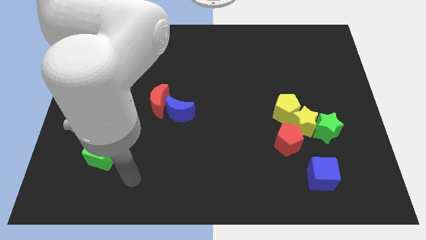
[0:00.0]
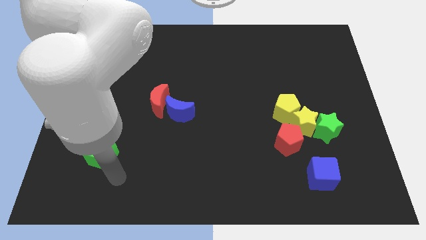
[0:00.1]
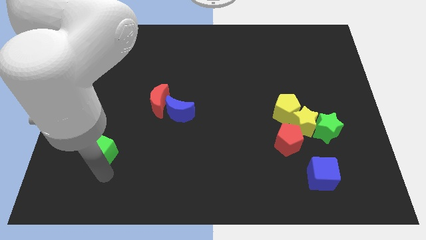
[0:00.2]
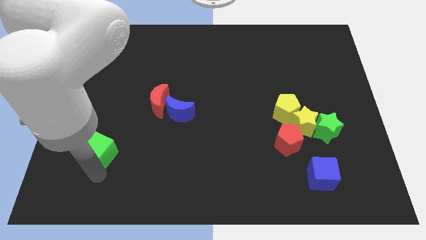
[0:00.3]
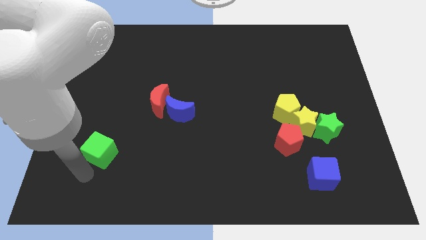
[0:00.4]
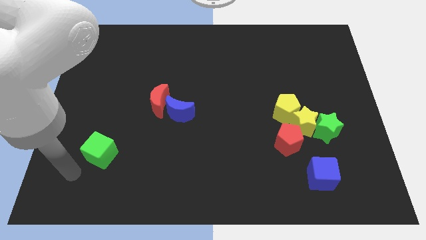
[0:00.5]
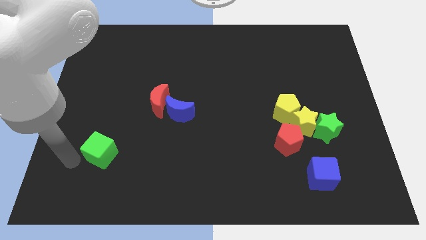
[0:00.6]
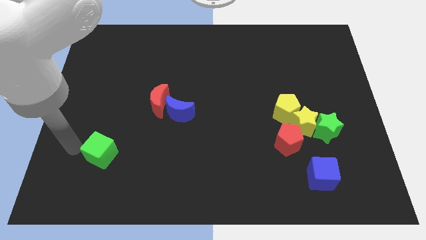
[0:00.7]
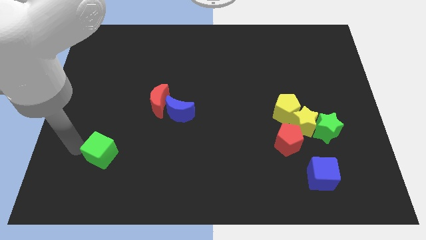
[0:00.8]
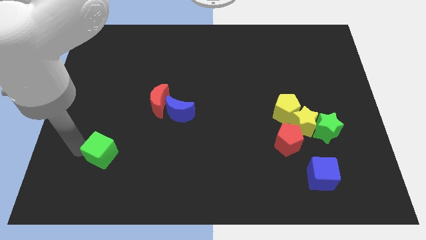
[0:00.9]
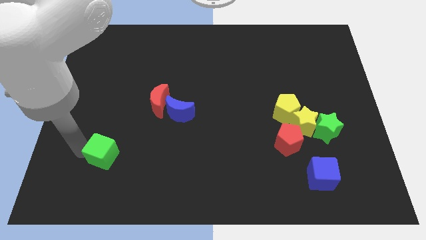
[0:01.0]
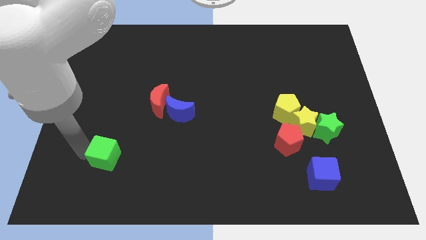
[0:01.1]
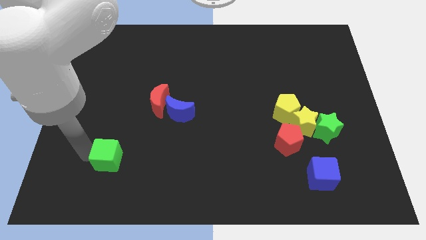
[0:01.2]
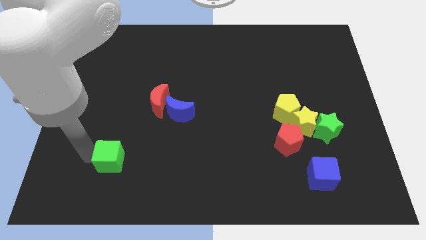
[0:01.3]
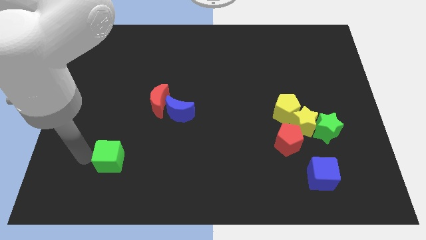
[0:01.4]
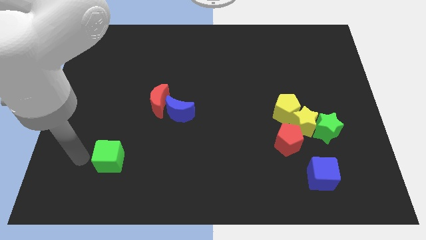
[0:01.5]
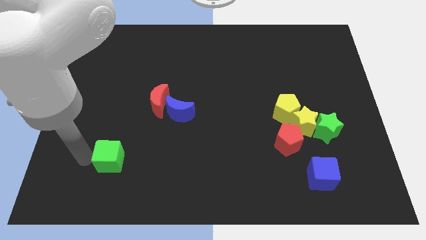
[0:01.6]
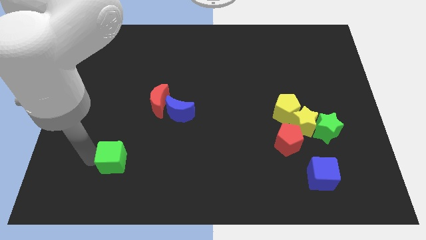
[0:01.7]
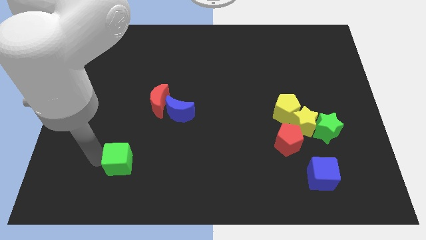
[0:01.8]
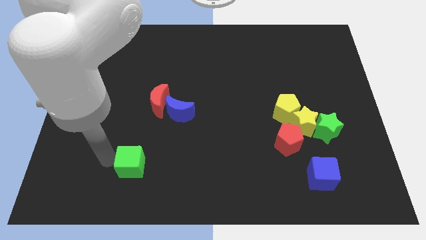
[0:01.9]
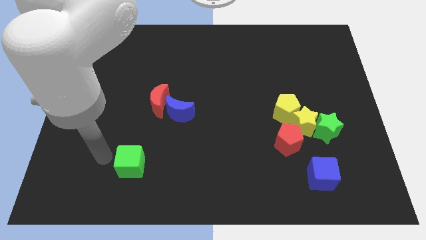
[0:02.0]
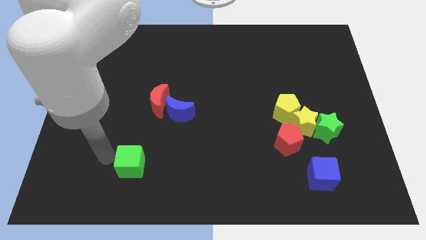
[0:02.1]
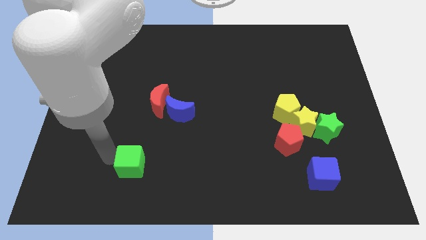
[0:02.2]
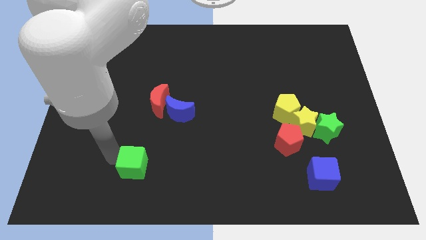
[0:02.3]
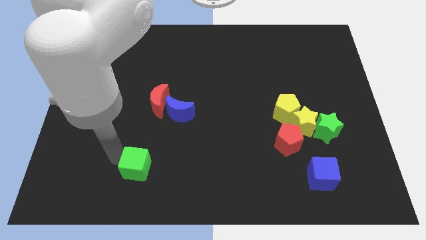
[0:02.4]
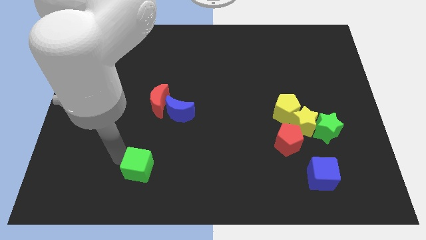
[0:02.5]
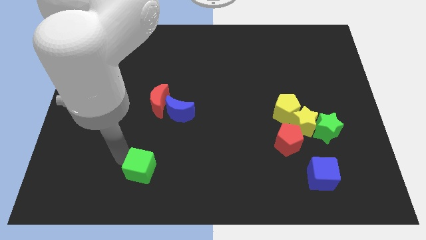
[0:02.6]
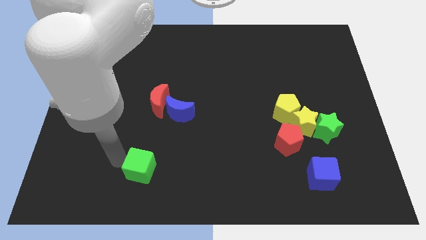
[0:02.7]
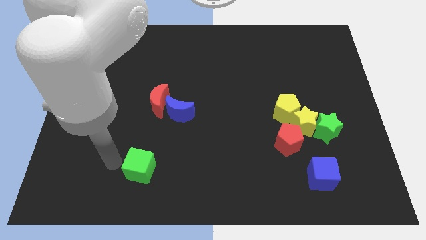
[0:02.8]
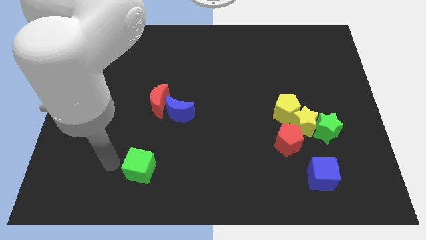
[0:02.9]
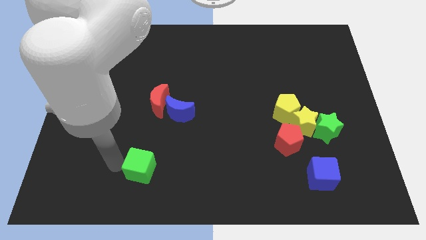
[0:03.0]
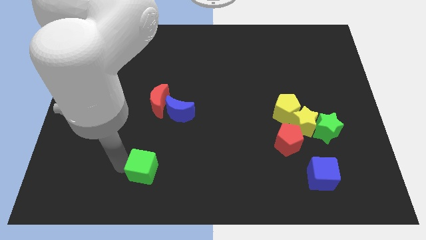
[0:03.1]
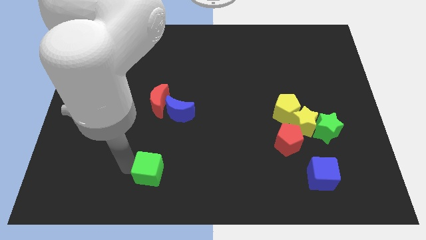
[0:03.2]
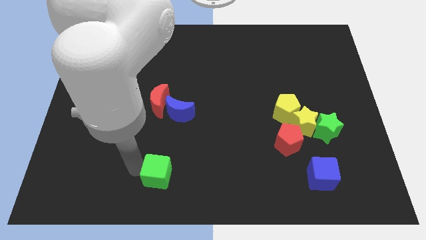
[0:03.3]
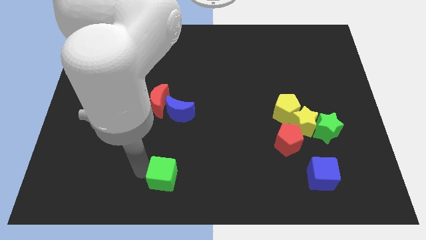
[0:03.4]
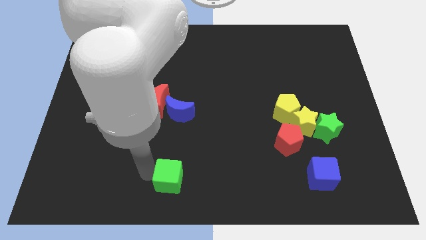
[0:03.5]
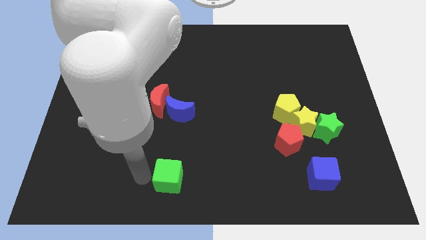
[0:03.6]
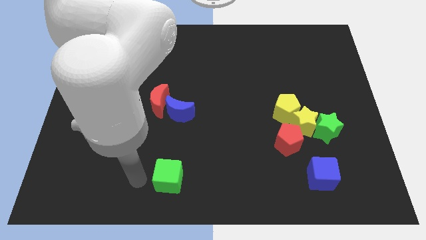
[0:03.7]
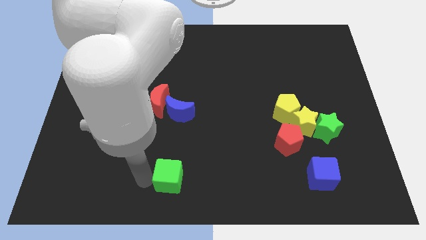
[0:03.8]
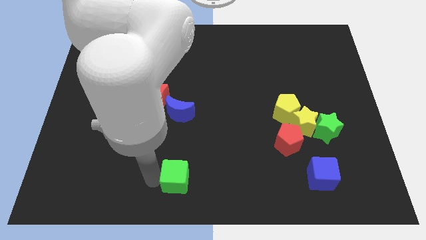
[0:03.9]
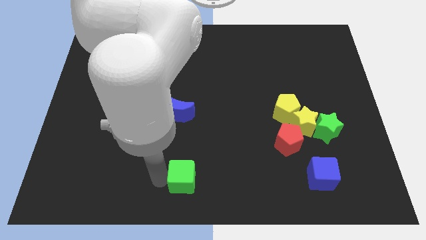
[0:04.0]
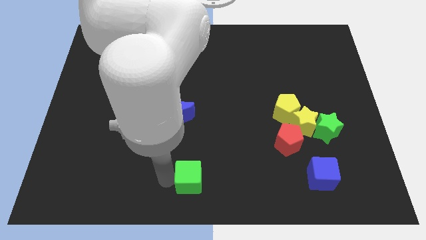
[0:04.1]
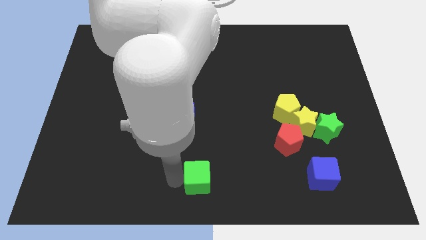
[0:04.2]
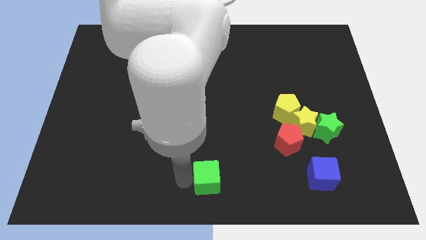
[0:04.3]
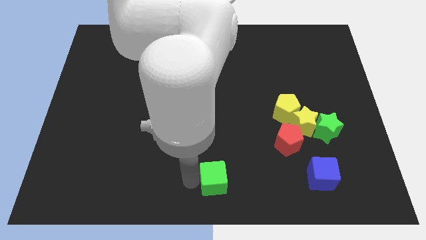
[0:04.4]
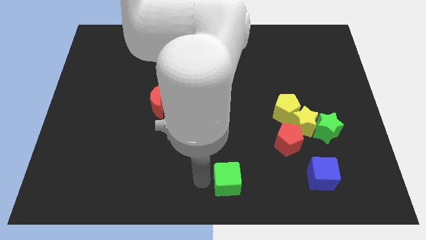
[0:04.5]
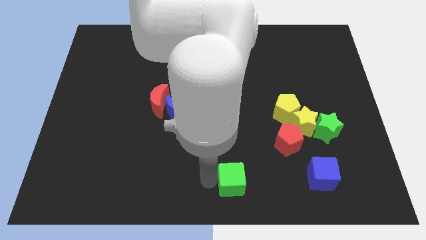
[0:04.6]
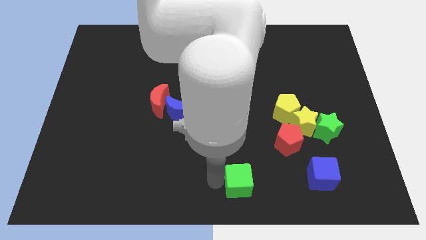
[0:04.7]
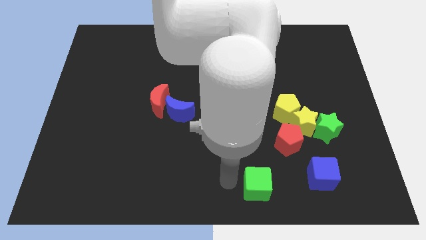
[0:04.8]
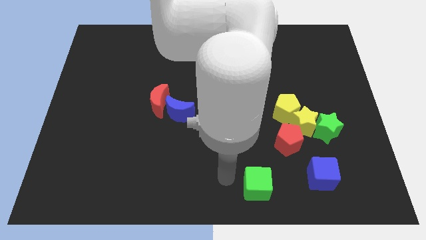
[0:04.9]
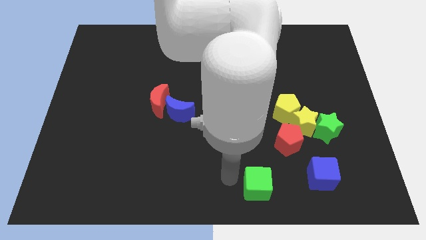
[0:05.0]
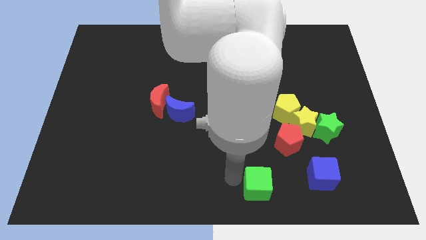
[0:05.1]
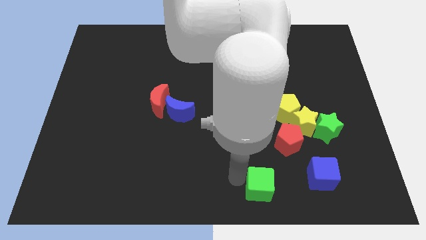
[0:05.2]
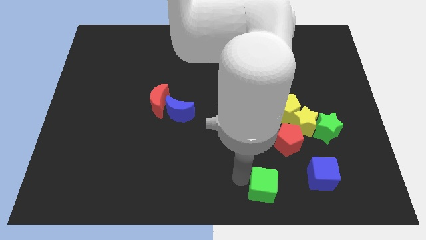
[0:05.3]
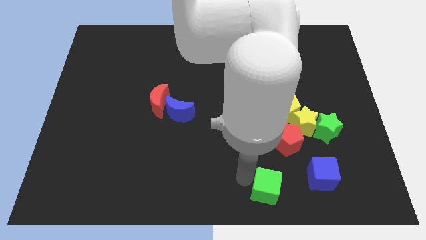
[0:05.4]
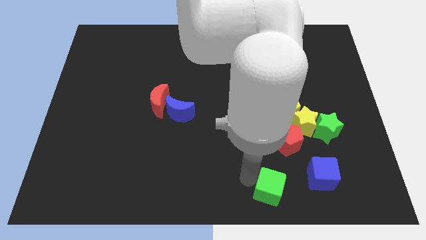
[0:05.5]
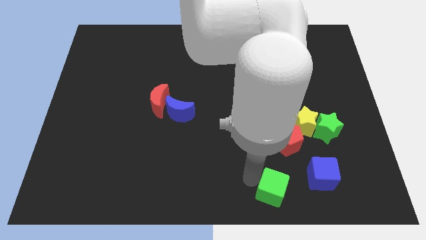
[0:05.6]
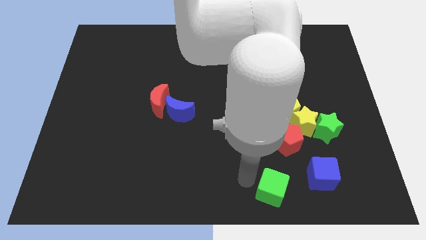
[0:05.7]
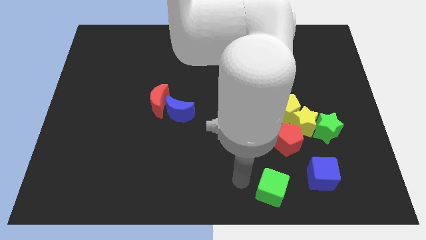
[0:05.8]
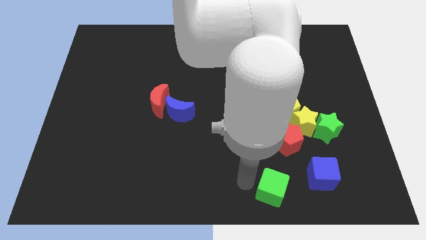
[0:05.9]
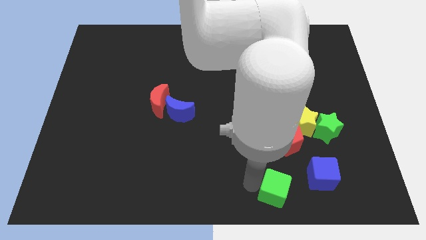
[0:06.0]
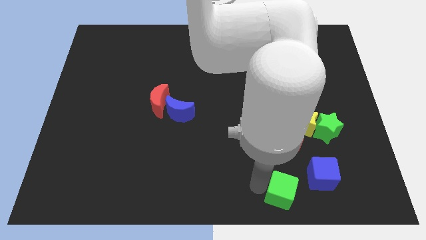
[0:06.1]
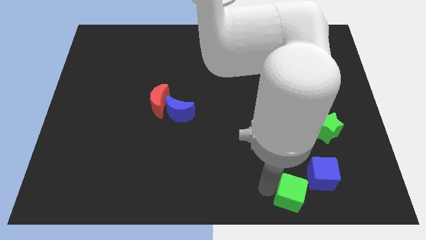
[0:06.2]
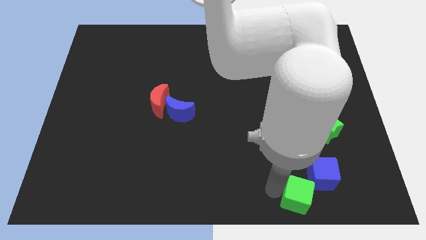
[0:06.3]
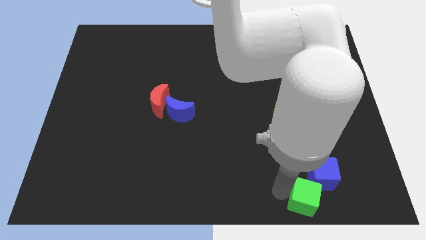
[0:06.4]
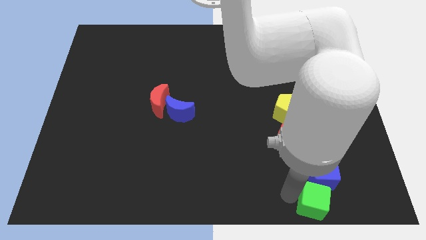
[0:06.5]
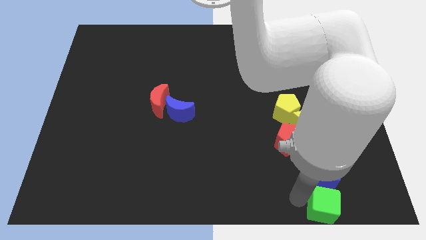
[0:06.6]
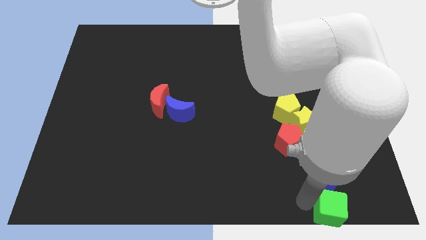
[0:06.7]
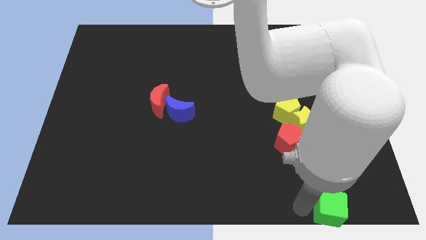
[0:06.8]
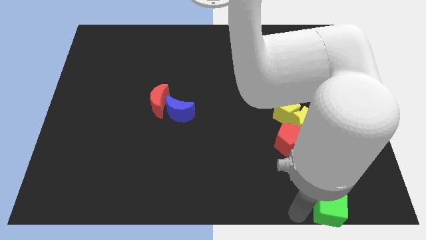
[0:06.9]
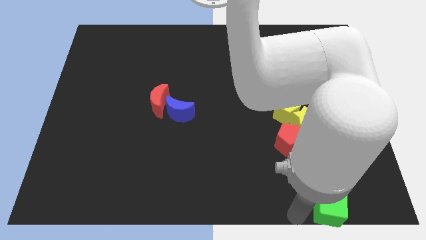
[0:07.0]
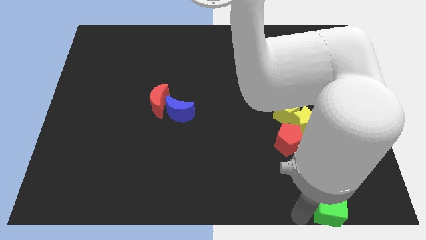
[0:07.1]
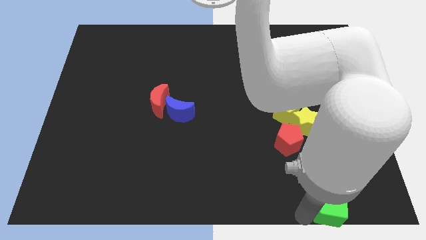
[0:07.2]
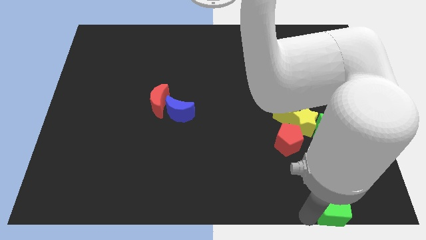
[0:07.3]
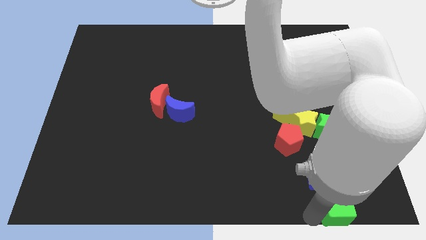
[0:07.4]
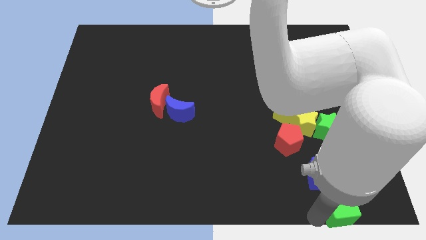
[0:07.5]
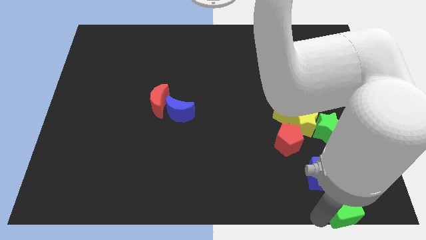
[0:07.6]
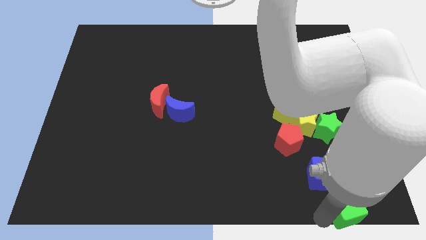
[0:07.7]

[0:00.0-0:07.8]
slide the green cube to the bottom right corner
